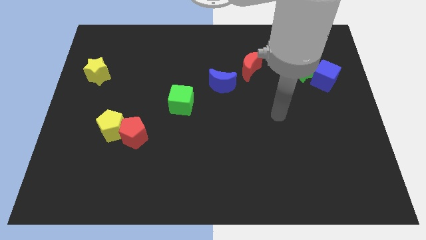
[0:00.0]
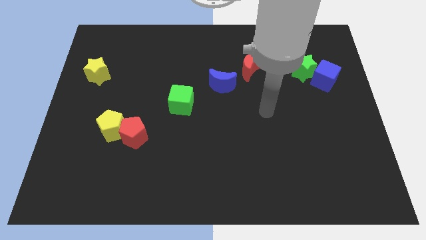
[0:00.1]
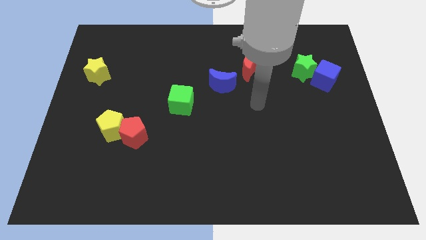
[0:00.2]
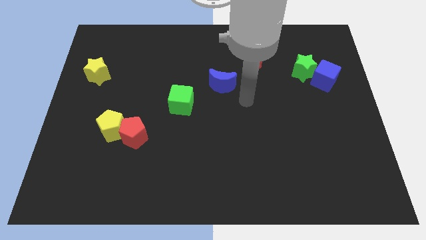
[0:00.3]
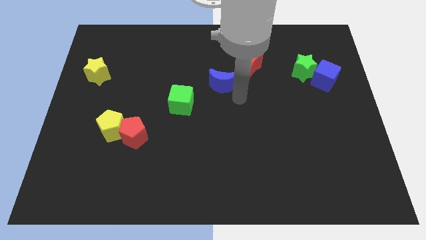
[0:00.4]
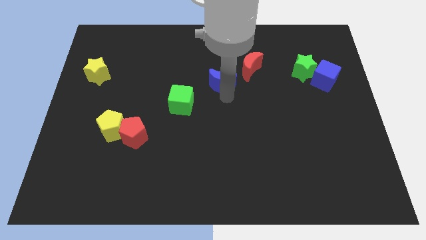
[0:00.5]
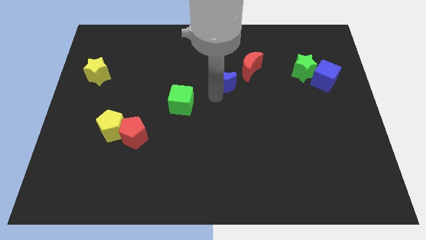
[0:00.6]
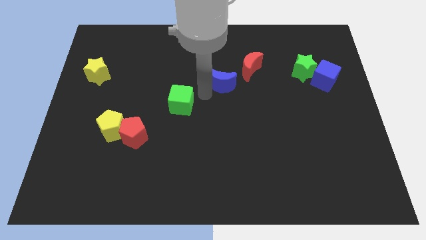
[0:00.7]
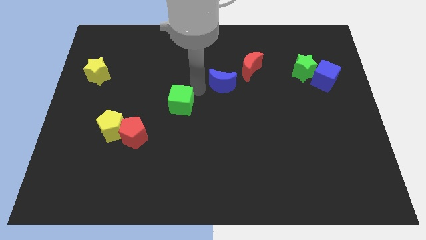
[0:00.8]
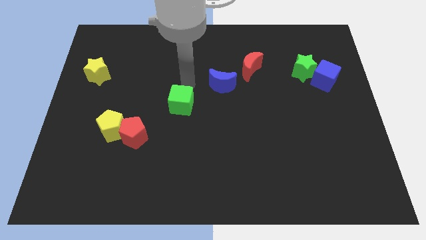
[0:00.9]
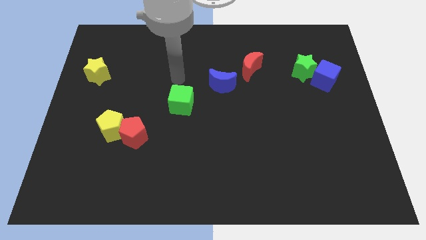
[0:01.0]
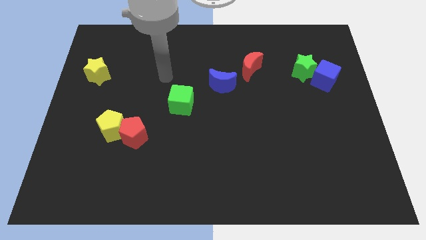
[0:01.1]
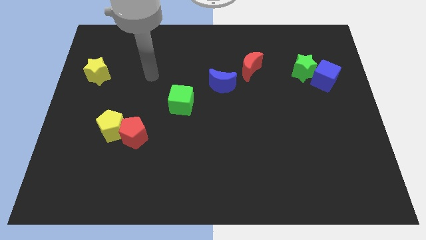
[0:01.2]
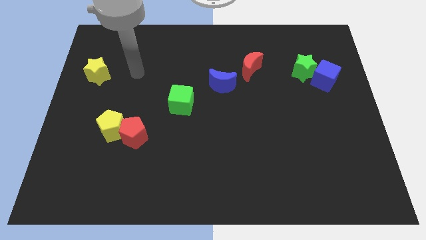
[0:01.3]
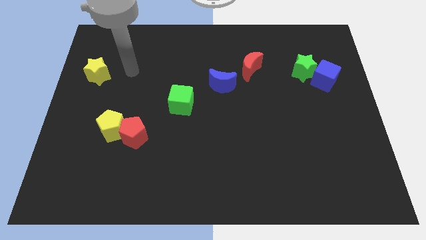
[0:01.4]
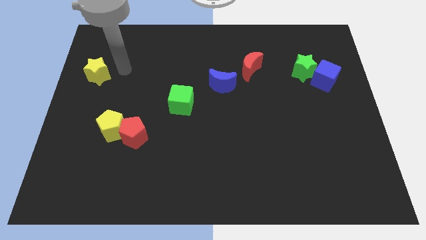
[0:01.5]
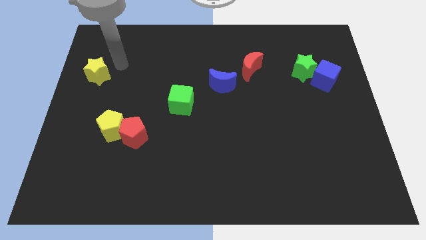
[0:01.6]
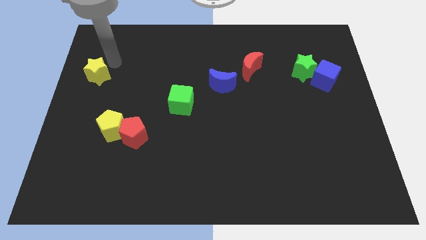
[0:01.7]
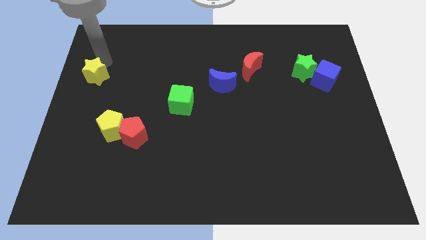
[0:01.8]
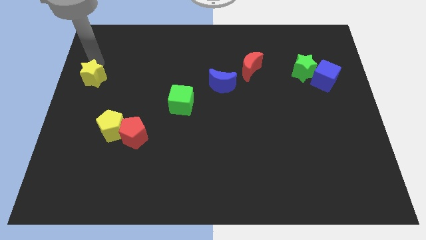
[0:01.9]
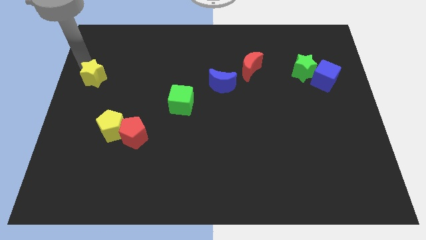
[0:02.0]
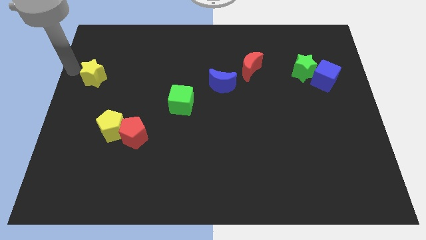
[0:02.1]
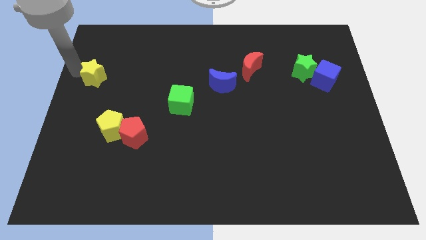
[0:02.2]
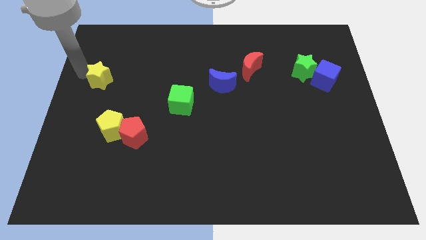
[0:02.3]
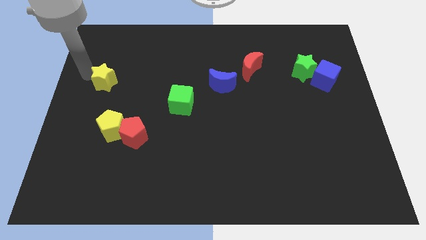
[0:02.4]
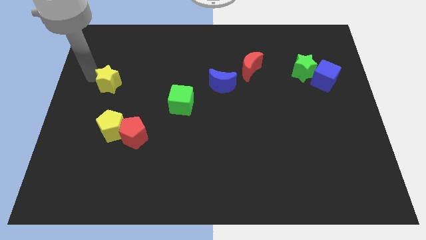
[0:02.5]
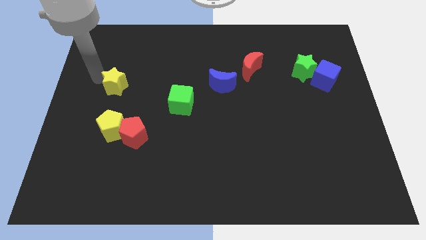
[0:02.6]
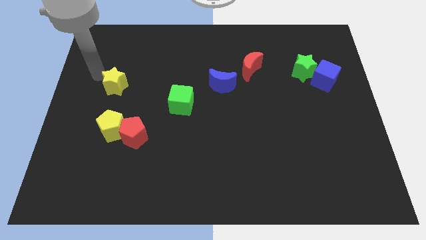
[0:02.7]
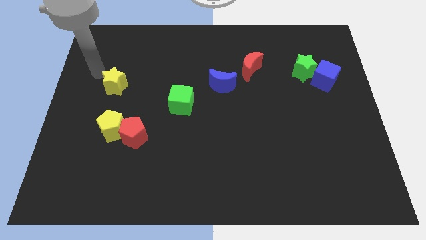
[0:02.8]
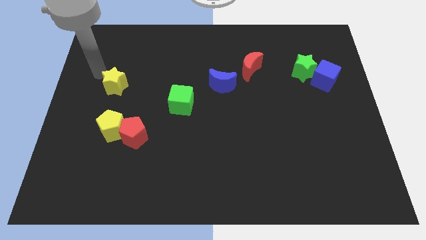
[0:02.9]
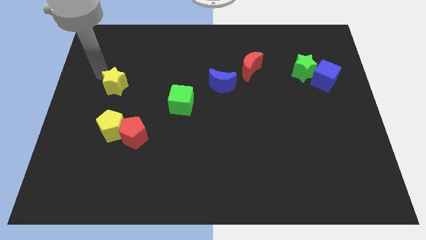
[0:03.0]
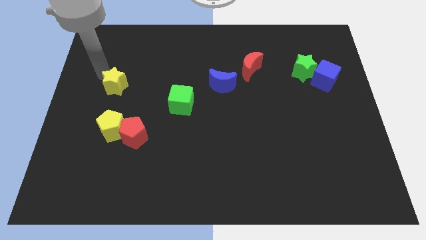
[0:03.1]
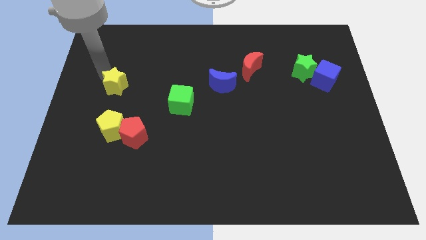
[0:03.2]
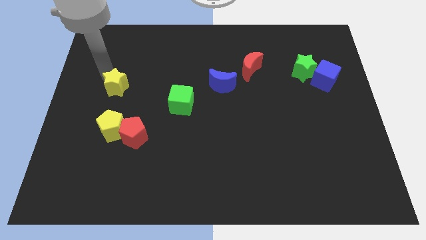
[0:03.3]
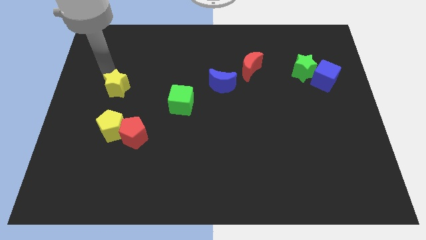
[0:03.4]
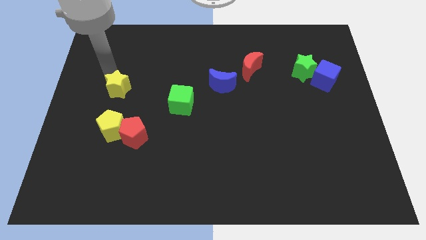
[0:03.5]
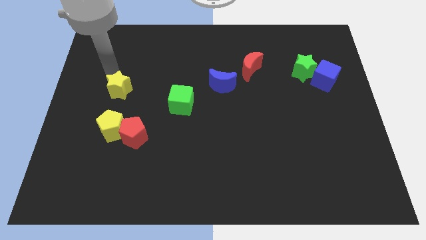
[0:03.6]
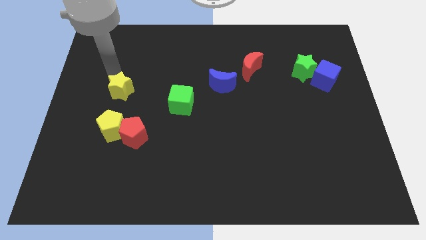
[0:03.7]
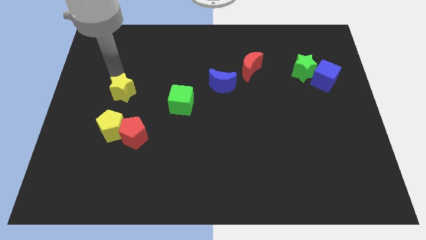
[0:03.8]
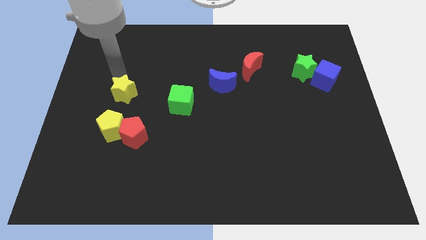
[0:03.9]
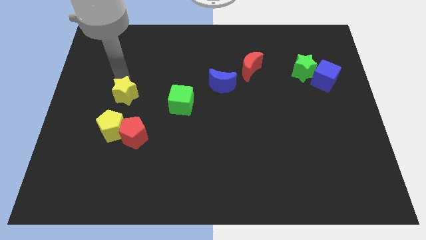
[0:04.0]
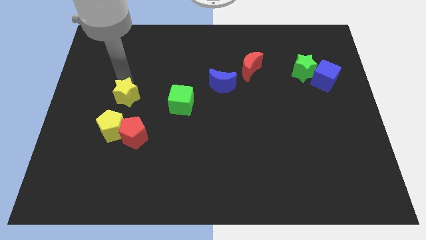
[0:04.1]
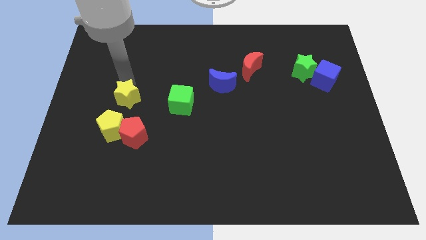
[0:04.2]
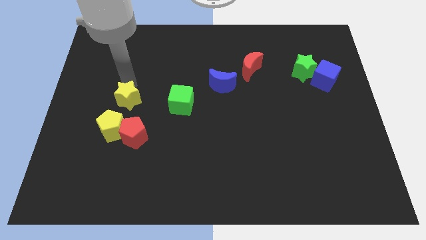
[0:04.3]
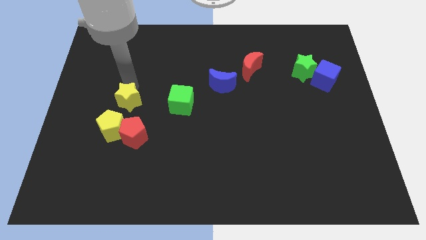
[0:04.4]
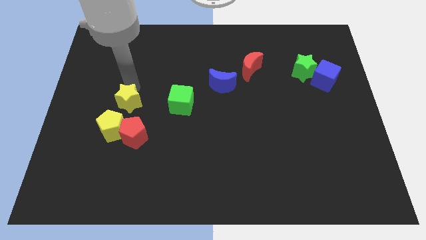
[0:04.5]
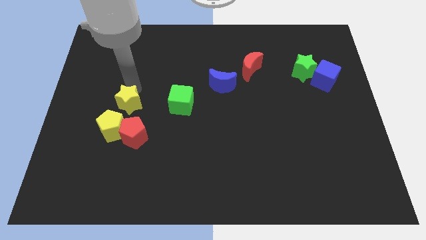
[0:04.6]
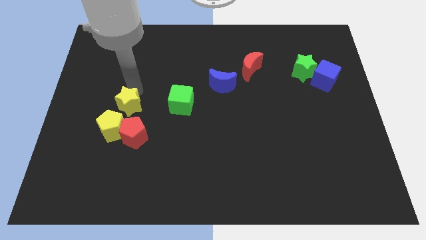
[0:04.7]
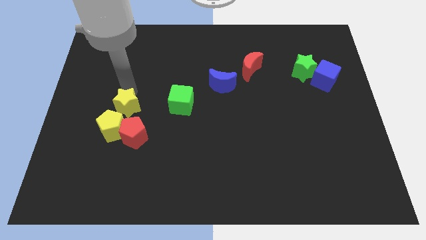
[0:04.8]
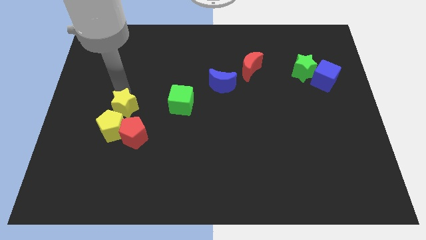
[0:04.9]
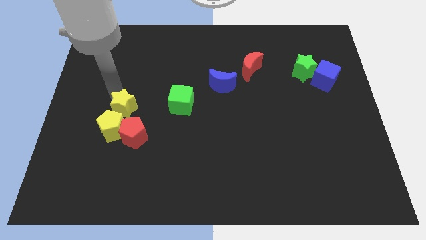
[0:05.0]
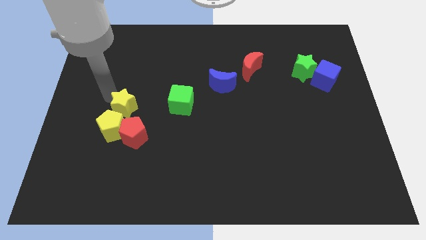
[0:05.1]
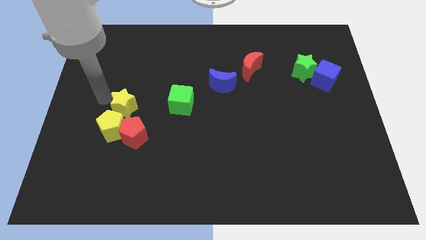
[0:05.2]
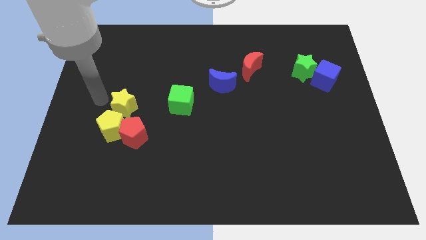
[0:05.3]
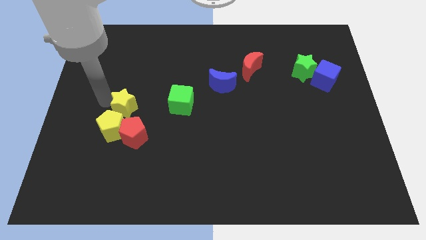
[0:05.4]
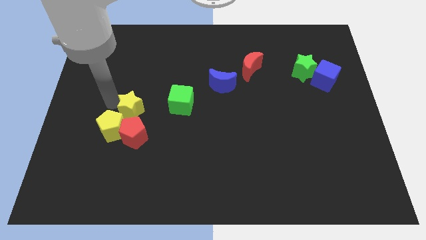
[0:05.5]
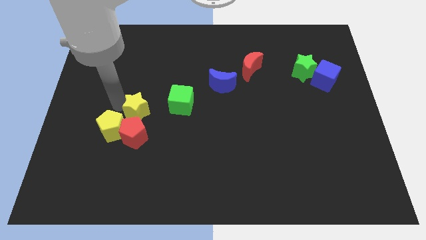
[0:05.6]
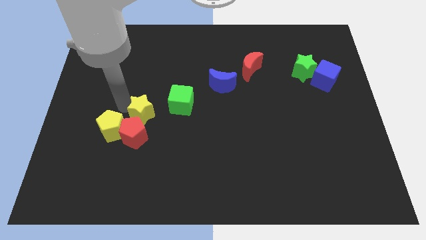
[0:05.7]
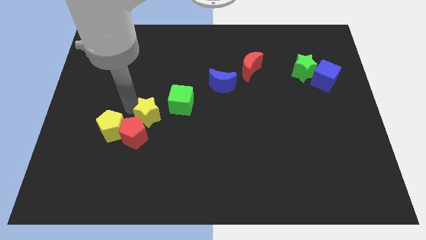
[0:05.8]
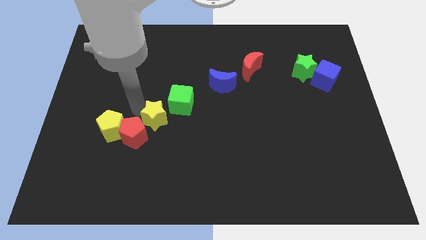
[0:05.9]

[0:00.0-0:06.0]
slide the yellow star right of the red pentagon

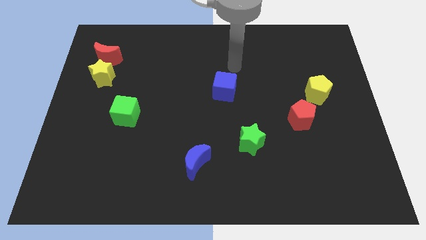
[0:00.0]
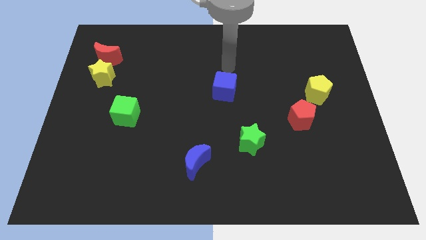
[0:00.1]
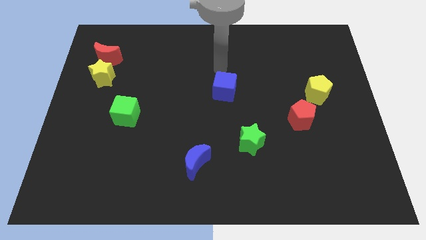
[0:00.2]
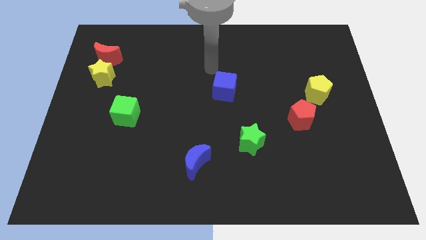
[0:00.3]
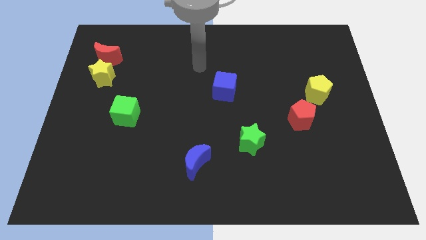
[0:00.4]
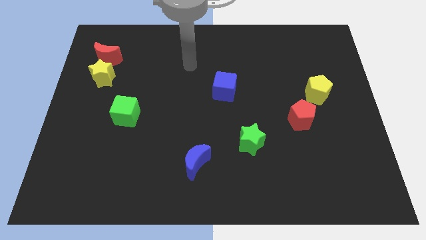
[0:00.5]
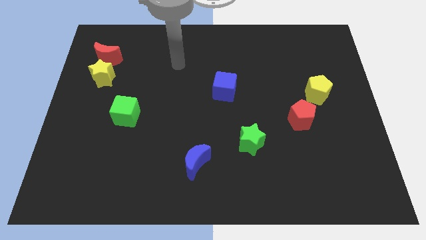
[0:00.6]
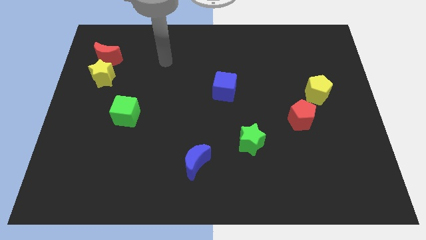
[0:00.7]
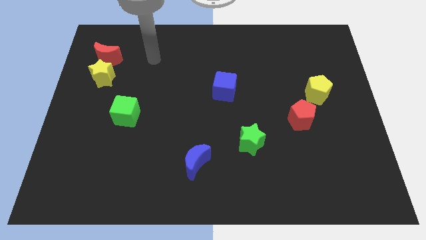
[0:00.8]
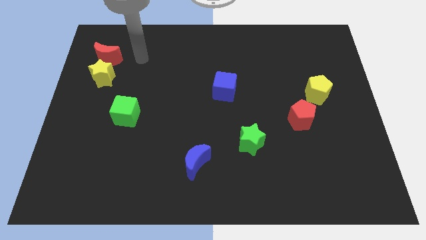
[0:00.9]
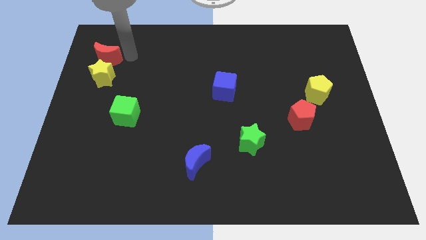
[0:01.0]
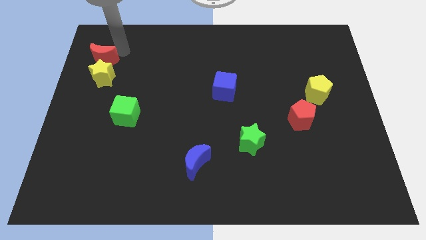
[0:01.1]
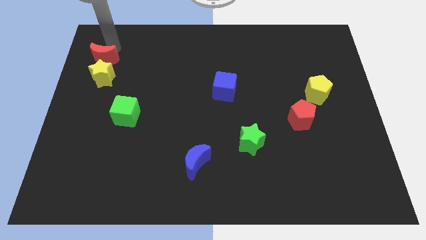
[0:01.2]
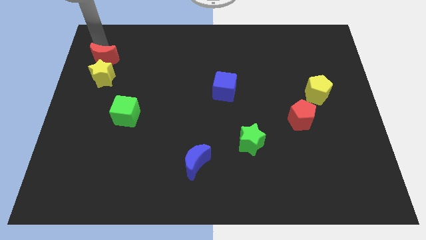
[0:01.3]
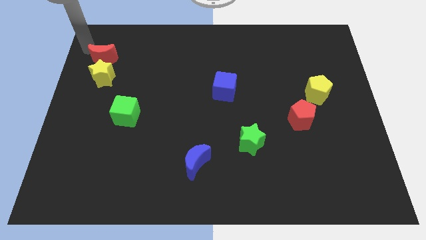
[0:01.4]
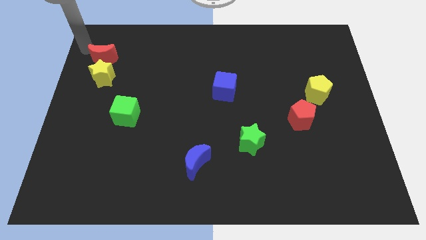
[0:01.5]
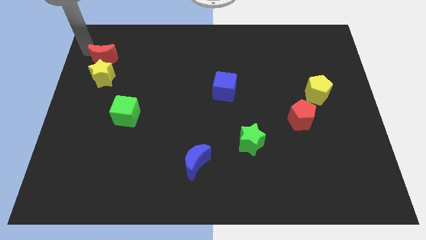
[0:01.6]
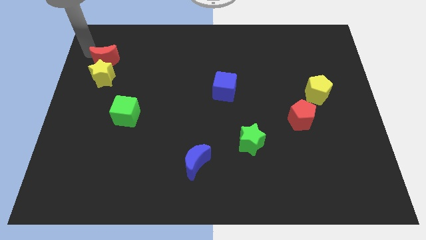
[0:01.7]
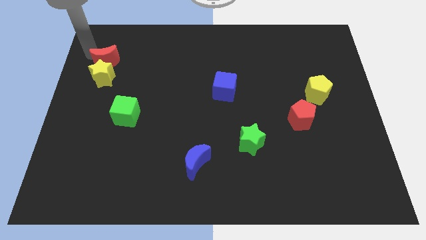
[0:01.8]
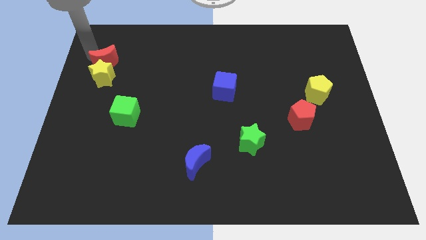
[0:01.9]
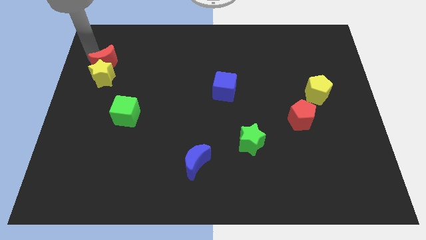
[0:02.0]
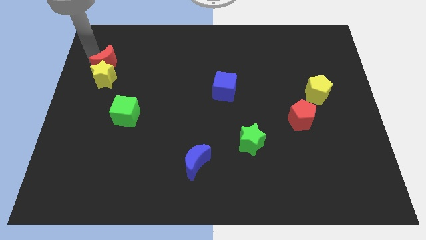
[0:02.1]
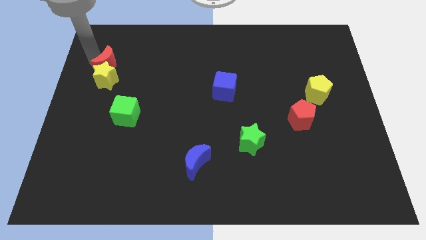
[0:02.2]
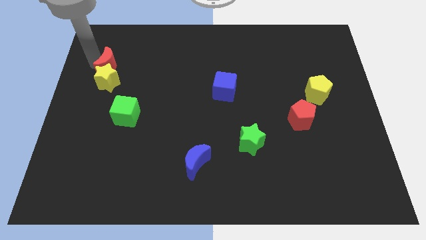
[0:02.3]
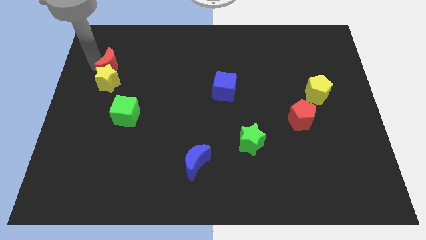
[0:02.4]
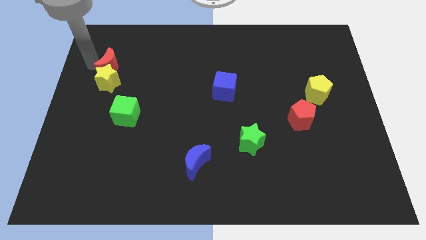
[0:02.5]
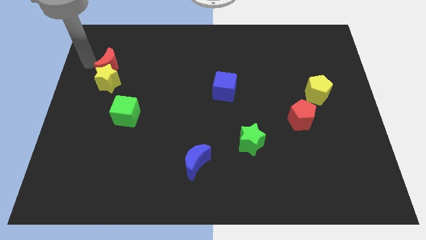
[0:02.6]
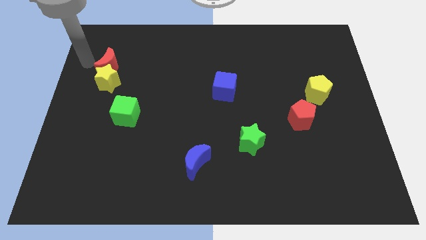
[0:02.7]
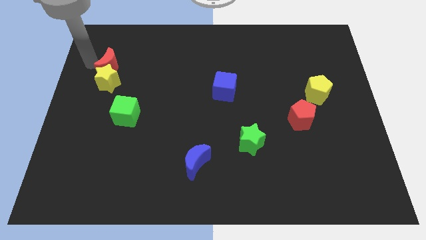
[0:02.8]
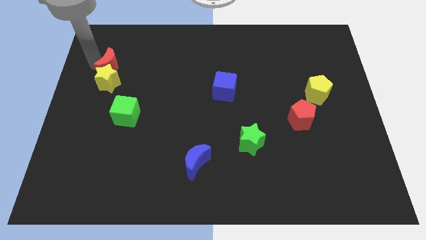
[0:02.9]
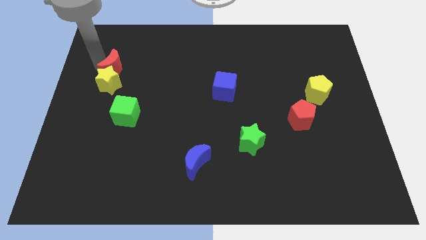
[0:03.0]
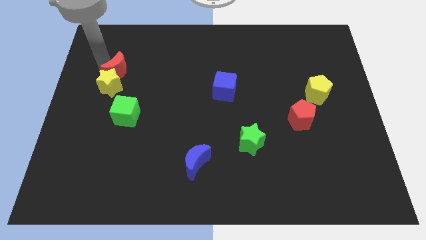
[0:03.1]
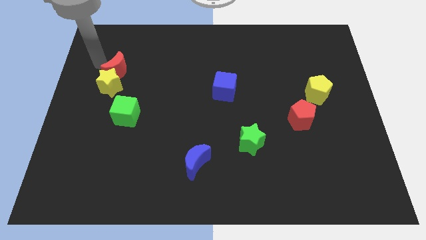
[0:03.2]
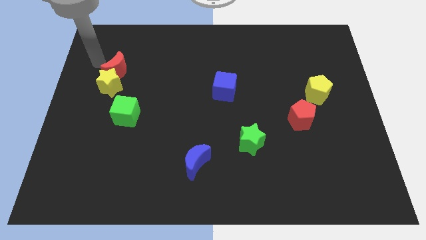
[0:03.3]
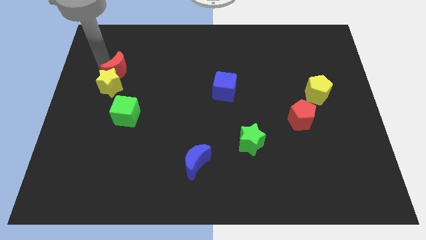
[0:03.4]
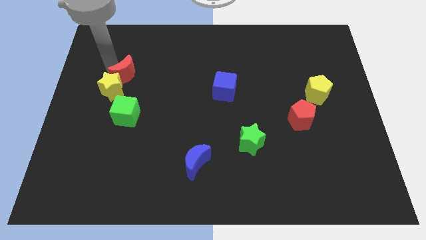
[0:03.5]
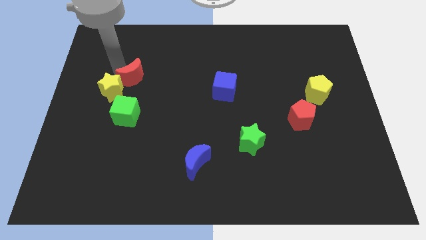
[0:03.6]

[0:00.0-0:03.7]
slide the red moon to the right side of the yellow star
